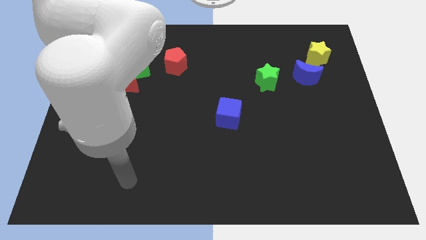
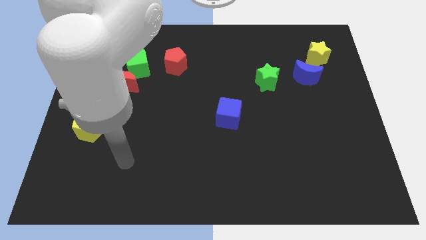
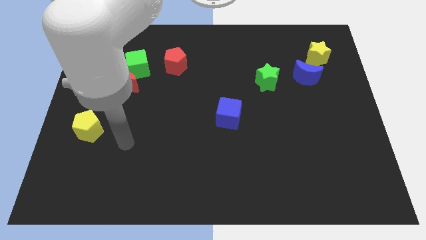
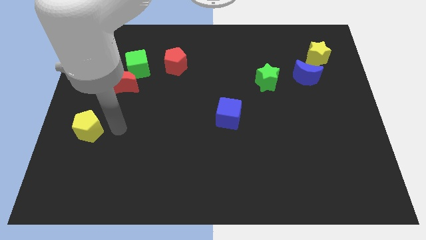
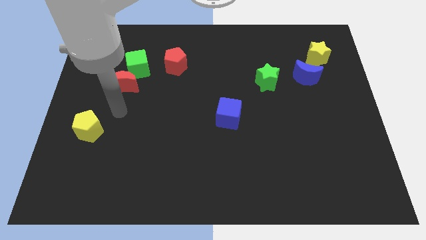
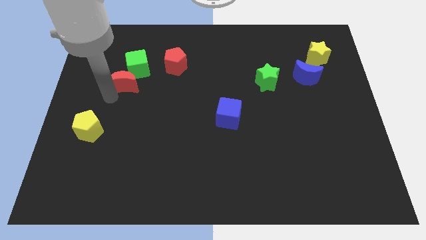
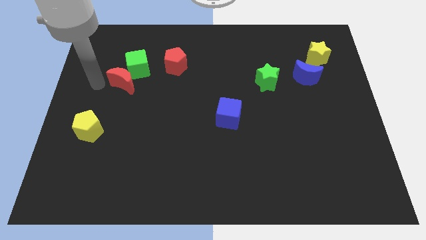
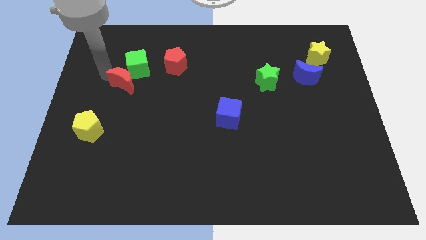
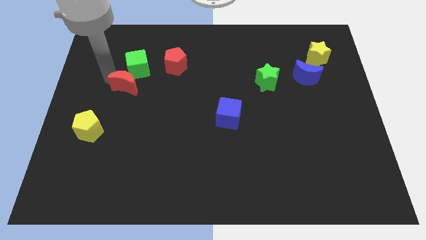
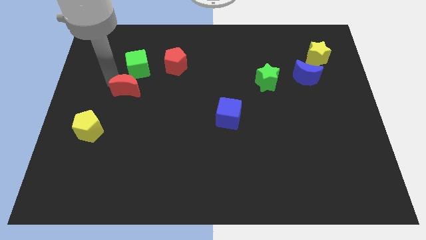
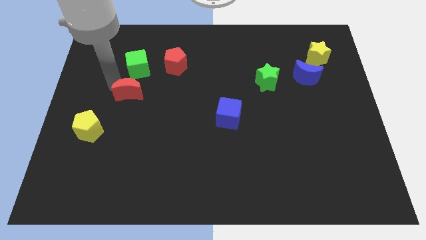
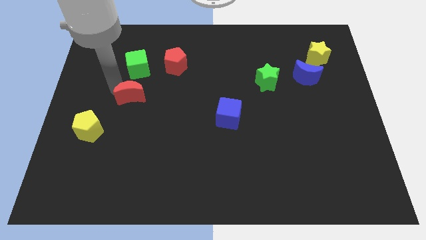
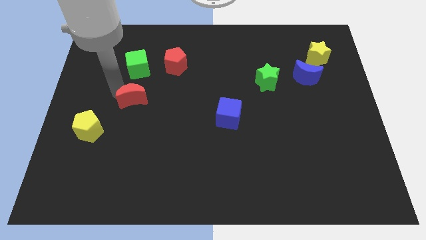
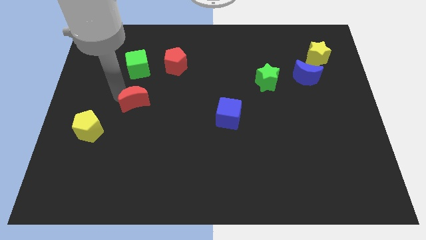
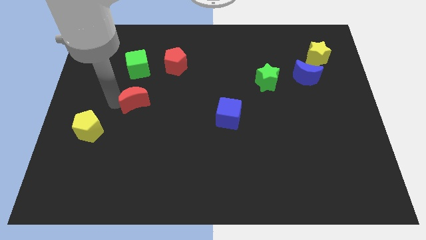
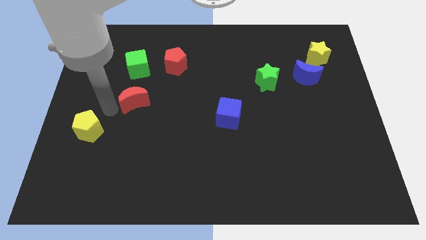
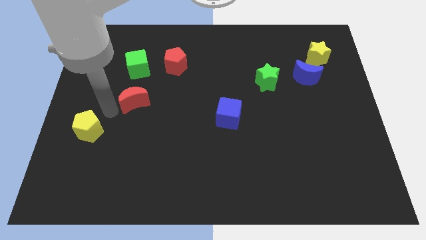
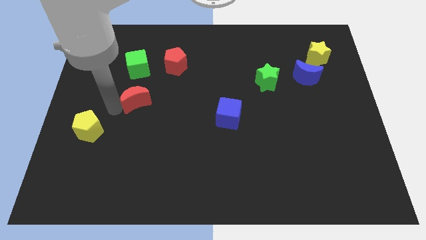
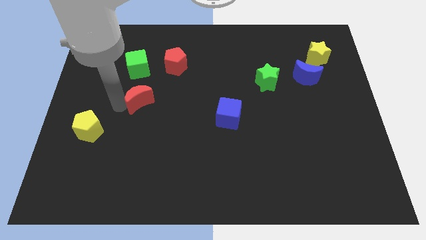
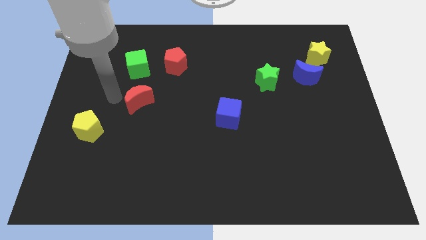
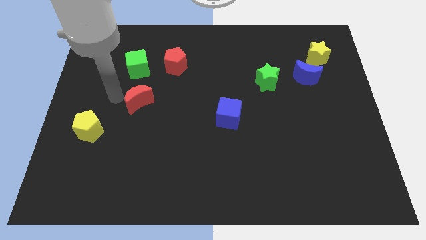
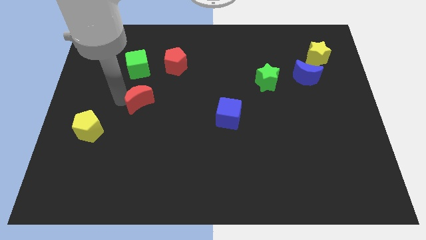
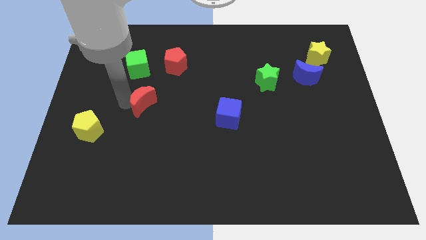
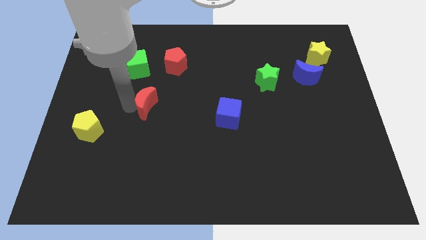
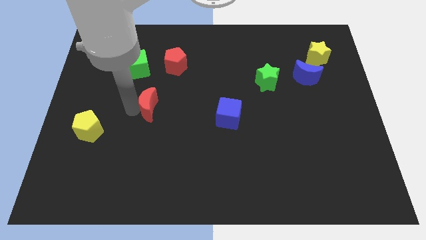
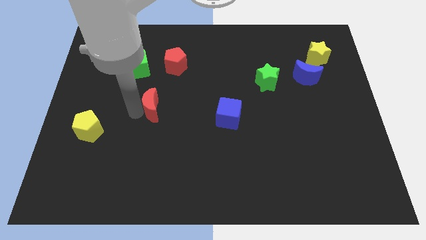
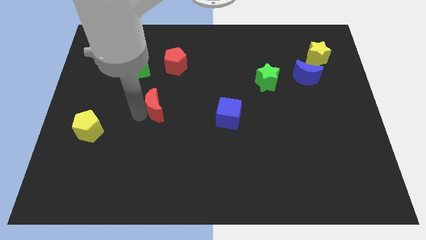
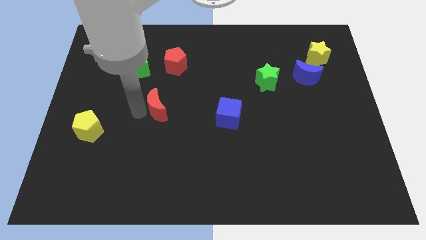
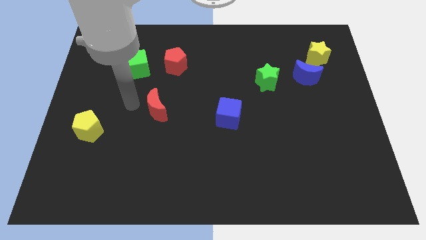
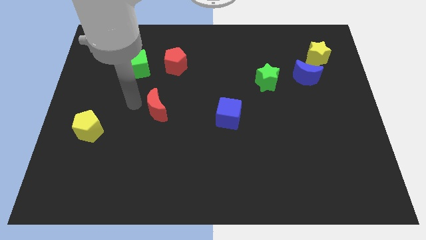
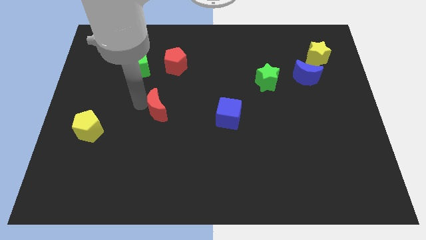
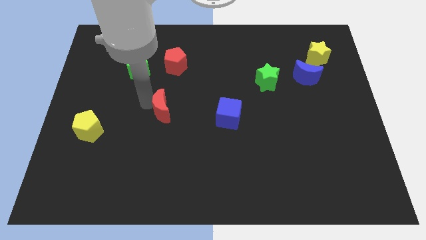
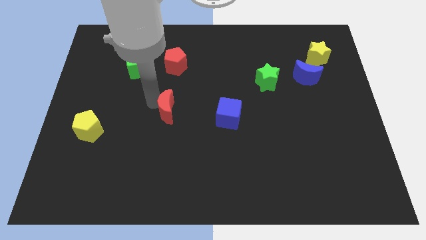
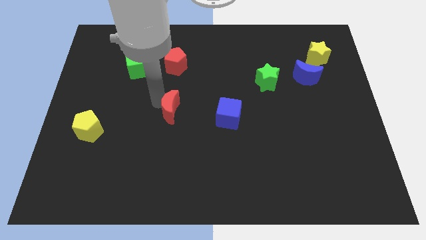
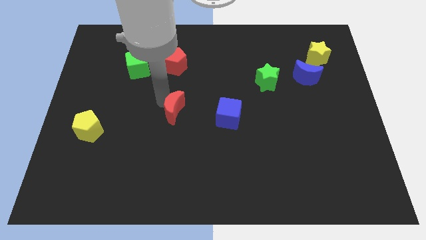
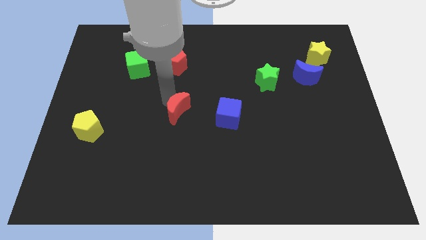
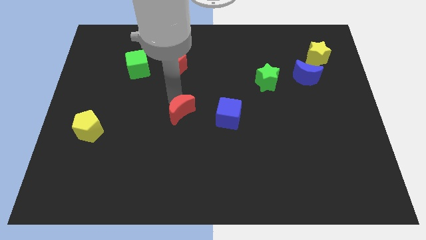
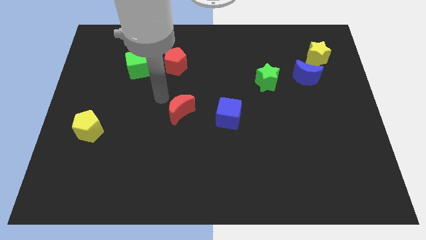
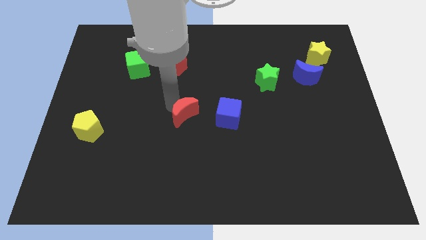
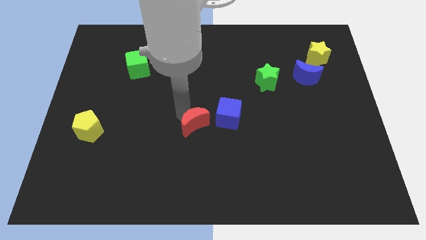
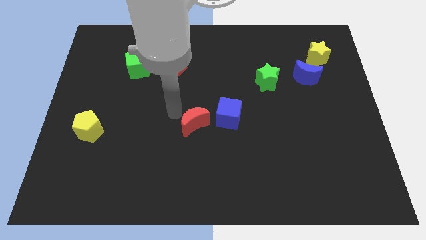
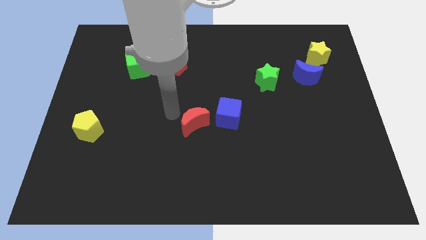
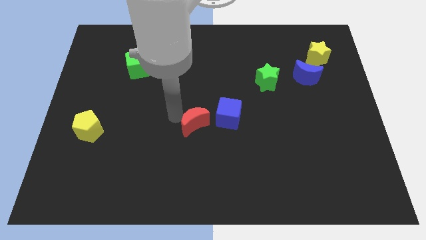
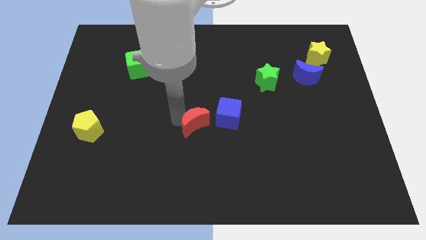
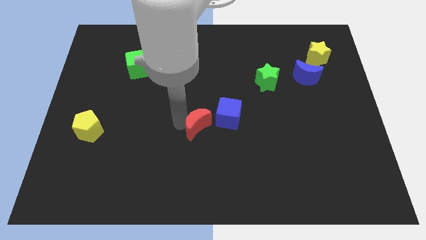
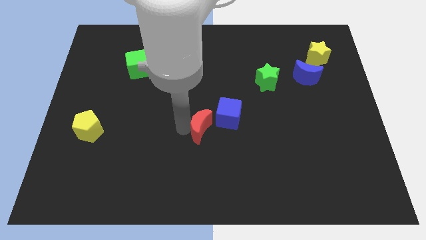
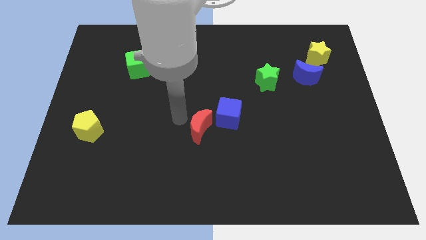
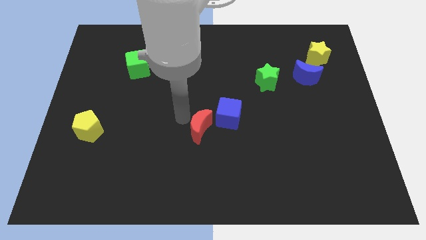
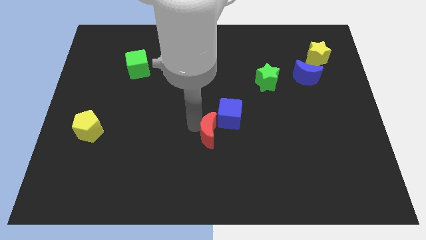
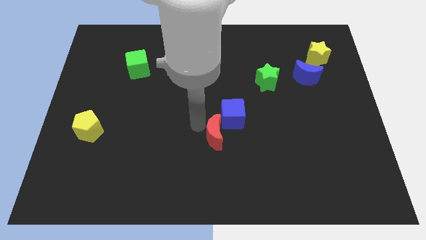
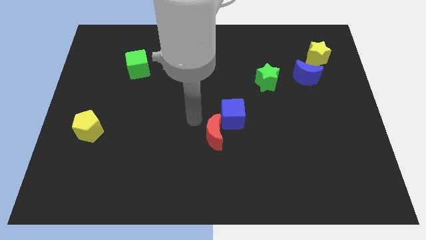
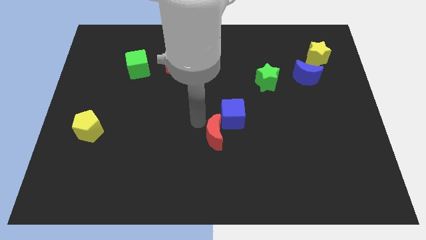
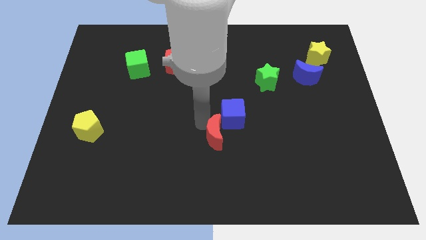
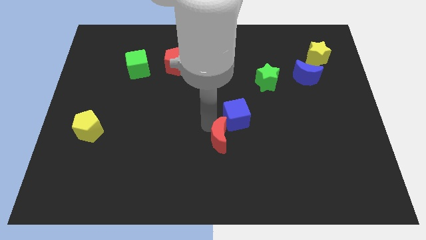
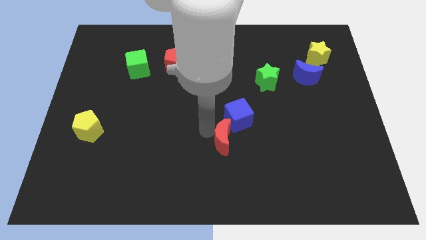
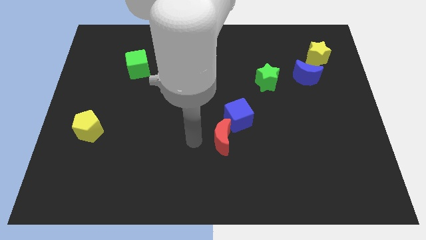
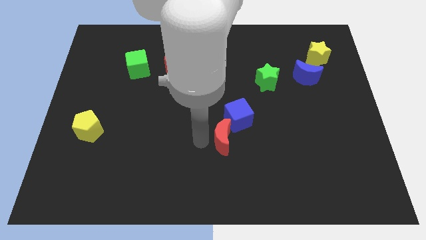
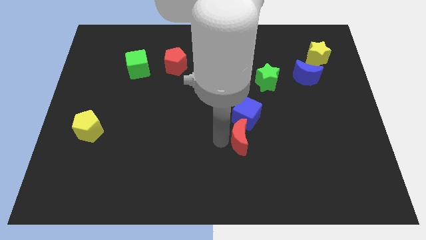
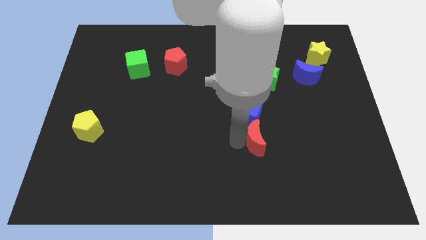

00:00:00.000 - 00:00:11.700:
put the red moon diagonally down and to the right of the blue cube
